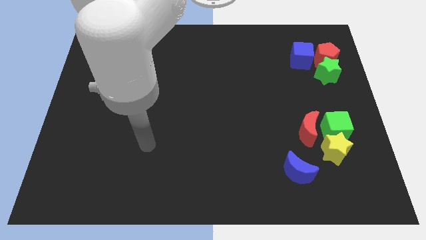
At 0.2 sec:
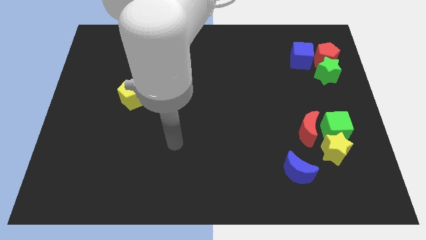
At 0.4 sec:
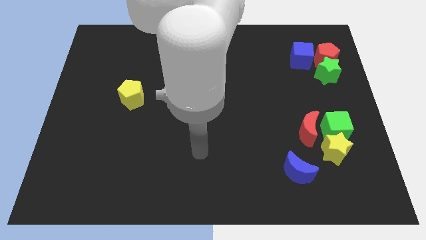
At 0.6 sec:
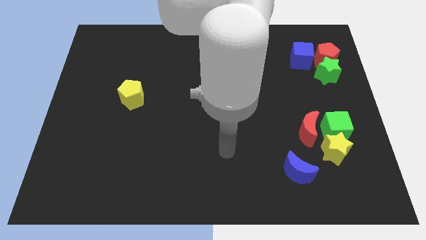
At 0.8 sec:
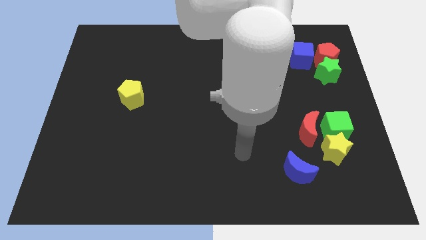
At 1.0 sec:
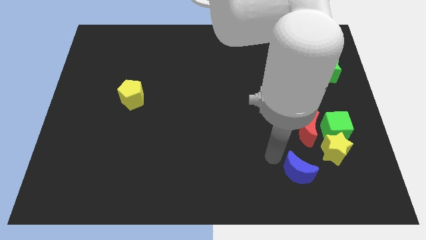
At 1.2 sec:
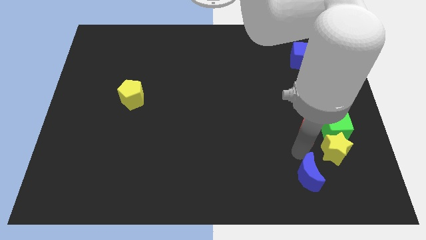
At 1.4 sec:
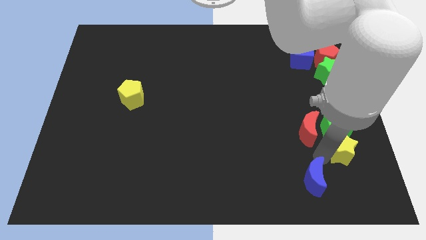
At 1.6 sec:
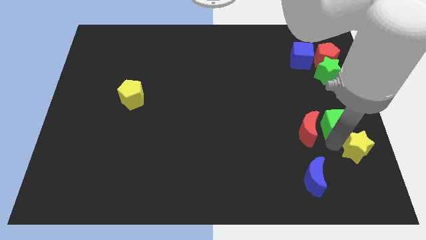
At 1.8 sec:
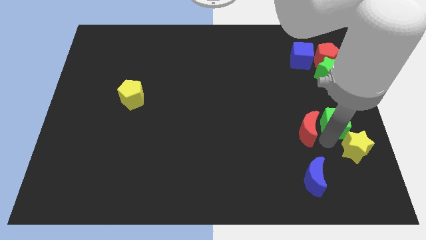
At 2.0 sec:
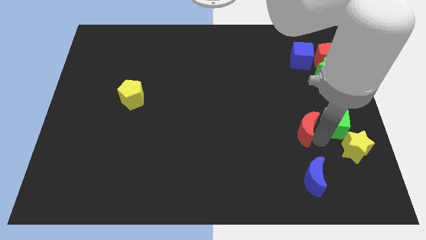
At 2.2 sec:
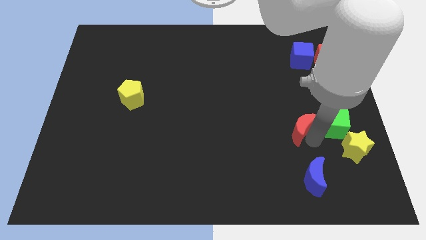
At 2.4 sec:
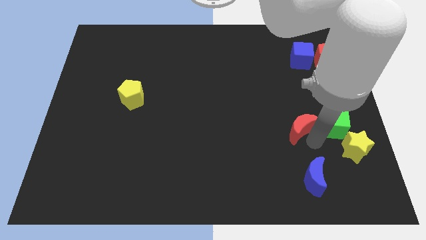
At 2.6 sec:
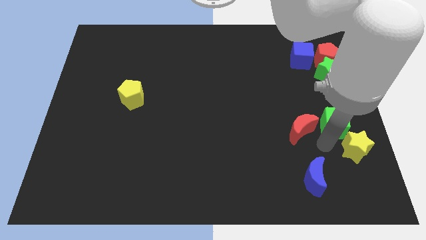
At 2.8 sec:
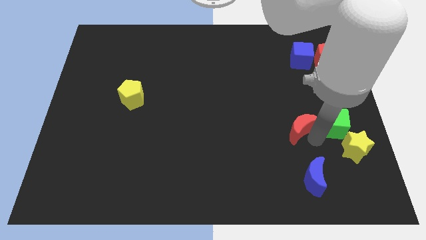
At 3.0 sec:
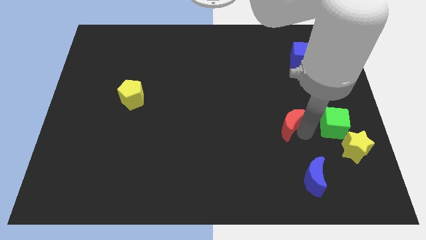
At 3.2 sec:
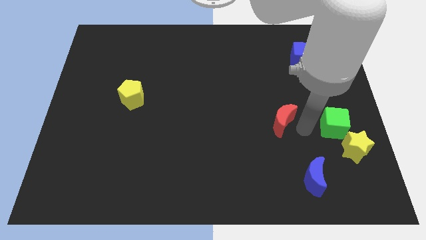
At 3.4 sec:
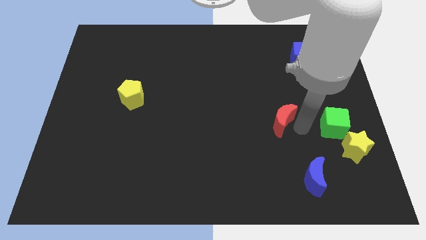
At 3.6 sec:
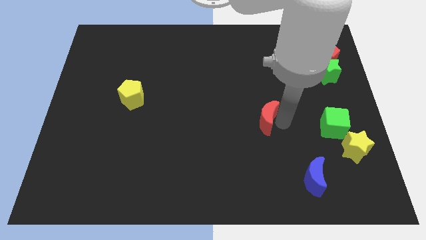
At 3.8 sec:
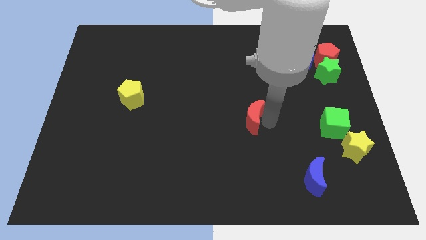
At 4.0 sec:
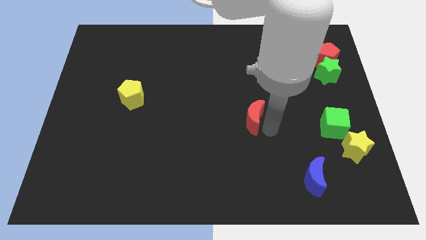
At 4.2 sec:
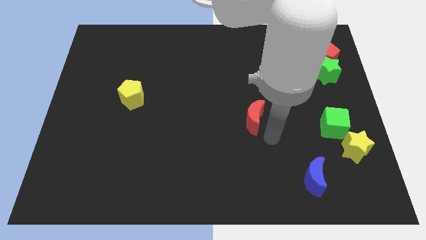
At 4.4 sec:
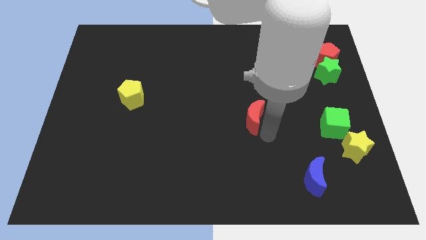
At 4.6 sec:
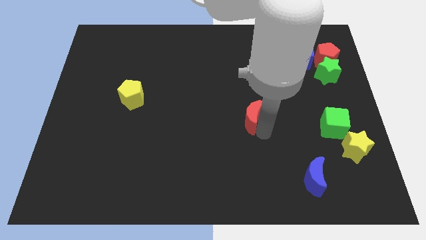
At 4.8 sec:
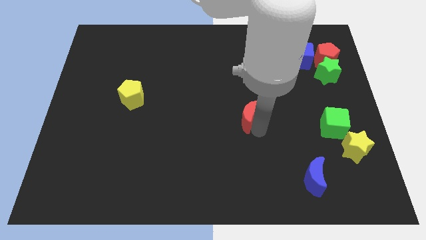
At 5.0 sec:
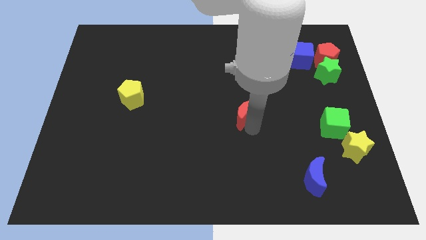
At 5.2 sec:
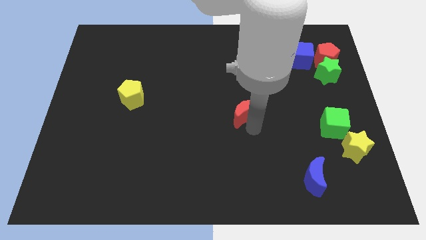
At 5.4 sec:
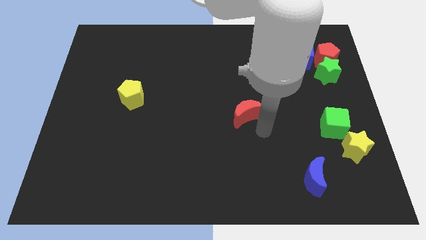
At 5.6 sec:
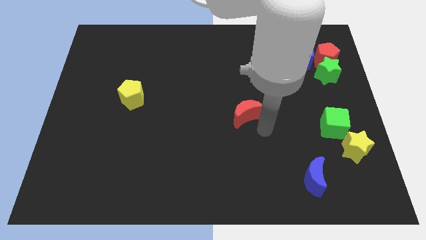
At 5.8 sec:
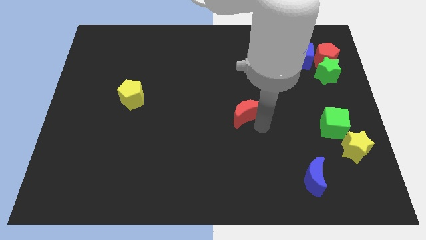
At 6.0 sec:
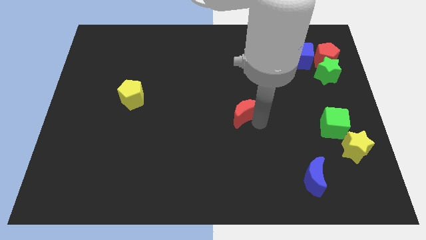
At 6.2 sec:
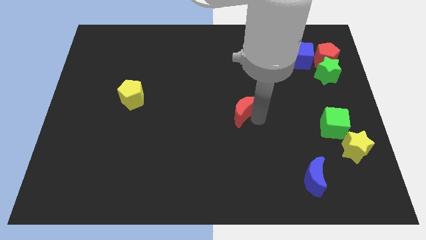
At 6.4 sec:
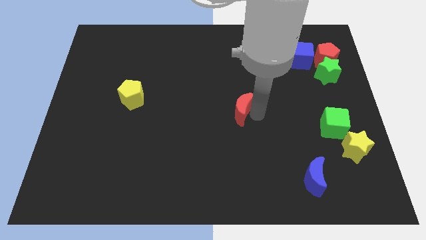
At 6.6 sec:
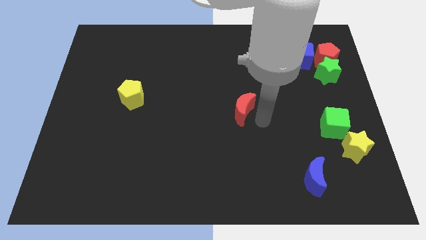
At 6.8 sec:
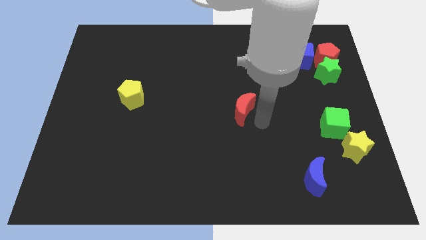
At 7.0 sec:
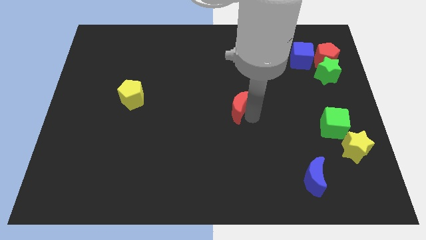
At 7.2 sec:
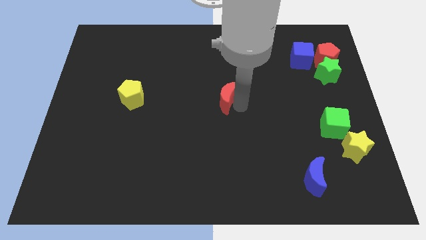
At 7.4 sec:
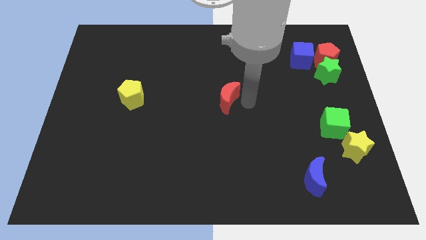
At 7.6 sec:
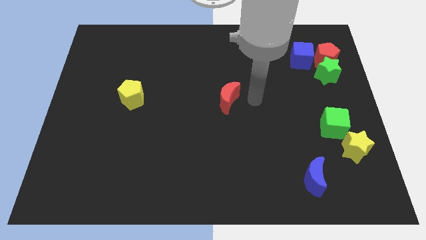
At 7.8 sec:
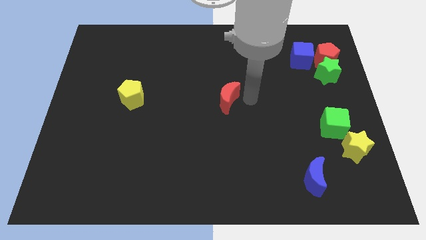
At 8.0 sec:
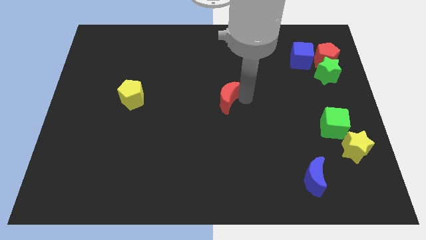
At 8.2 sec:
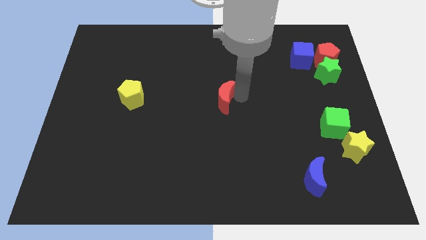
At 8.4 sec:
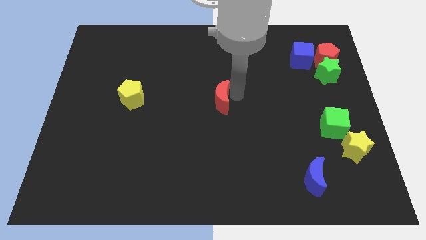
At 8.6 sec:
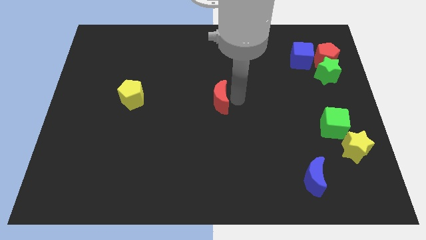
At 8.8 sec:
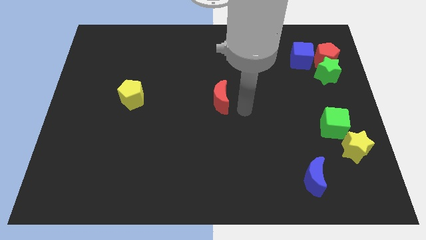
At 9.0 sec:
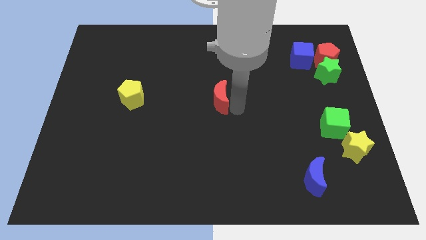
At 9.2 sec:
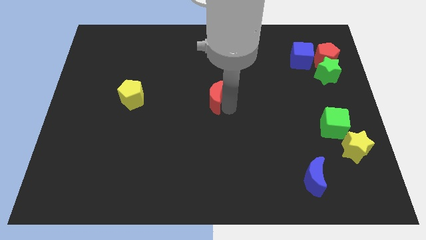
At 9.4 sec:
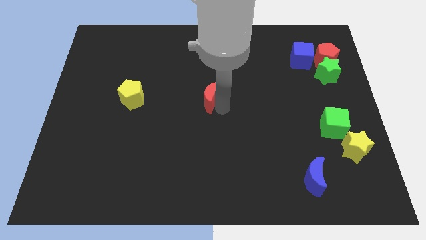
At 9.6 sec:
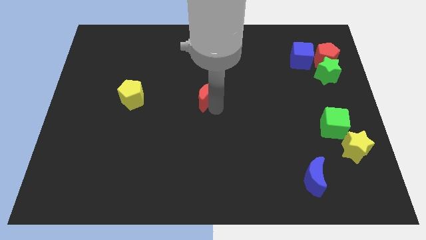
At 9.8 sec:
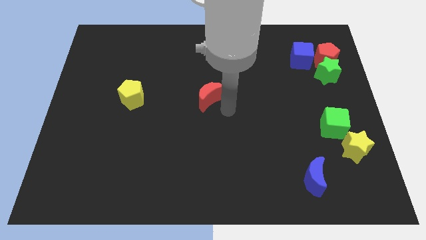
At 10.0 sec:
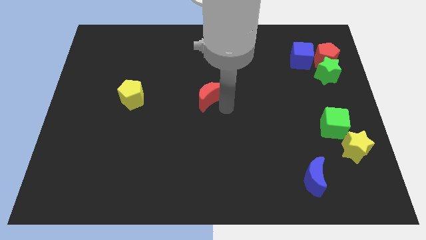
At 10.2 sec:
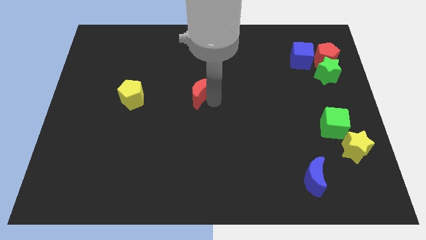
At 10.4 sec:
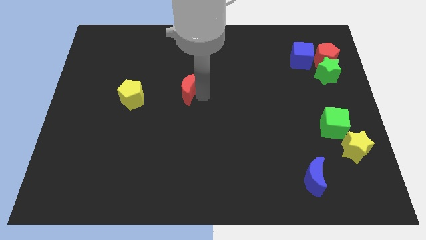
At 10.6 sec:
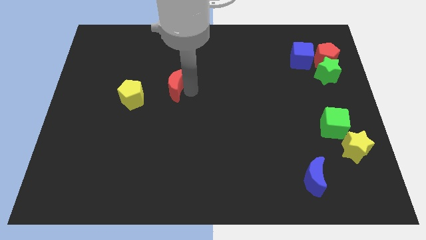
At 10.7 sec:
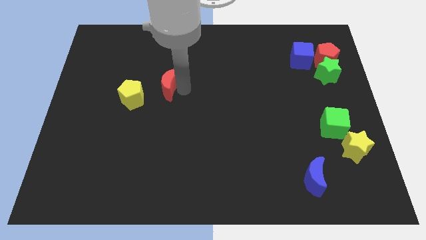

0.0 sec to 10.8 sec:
push the red moon diagonally up and to the right of the yellow pentagon

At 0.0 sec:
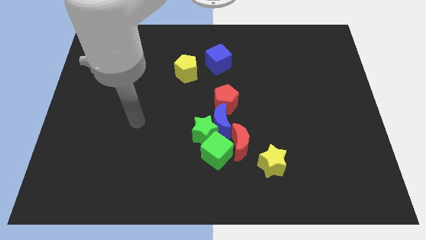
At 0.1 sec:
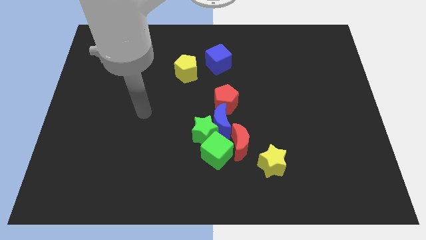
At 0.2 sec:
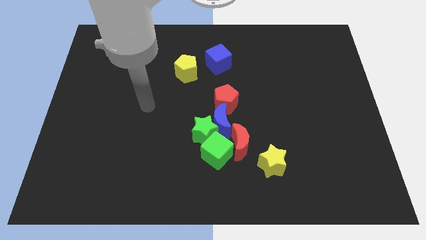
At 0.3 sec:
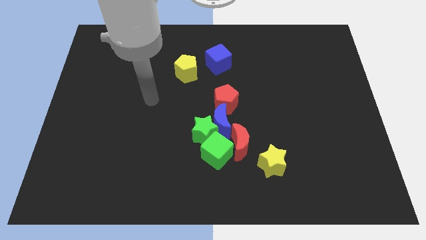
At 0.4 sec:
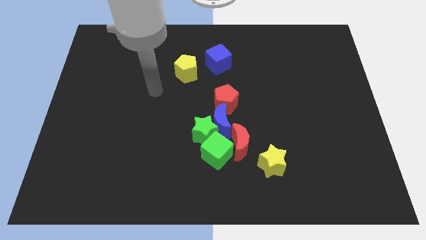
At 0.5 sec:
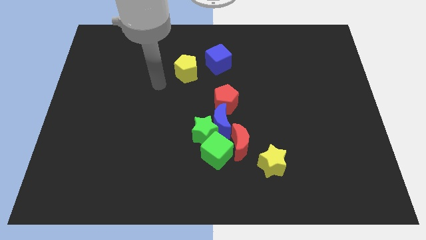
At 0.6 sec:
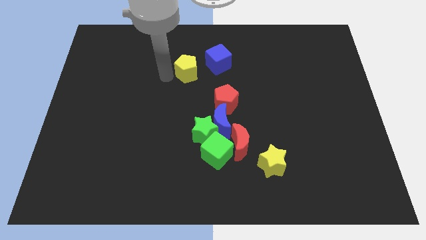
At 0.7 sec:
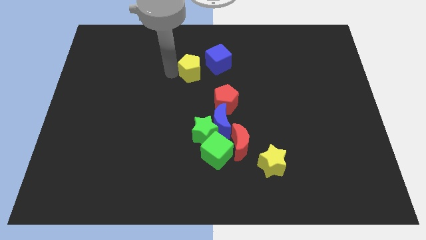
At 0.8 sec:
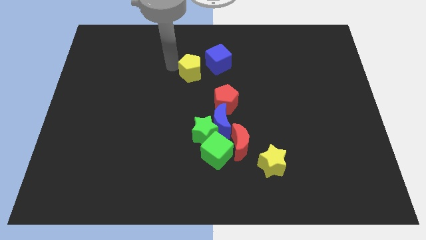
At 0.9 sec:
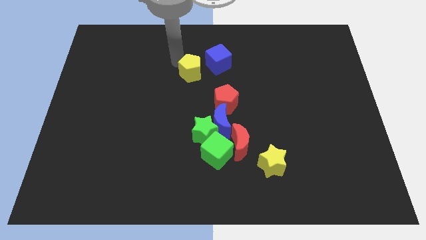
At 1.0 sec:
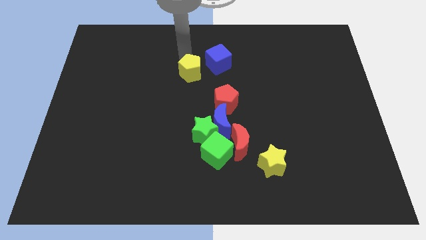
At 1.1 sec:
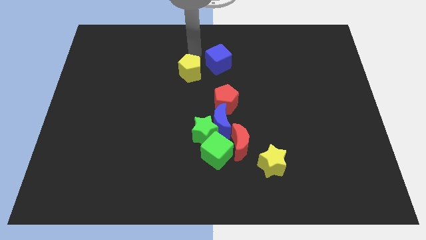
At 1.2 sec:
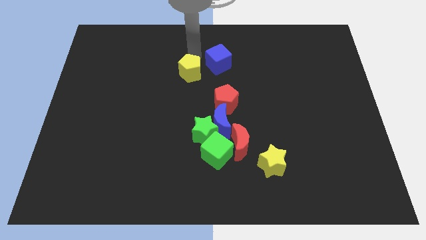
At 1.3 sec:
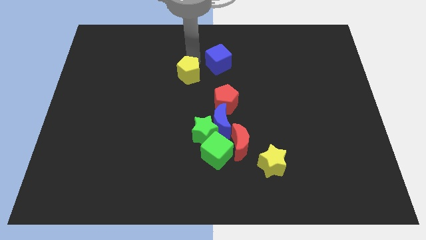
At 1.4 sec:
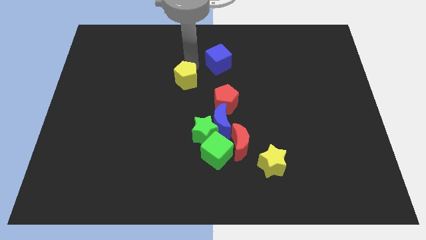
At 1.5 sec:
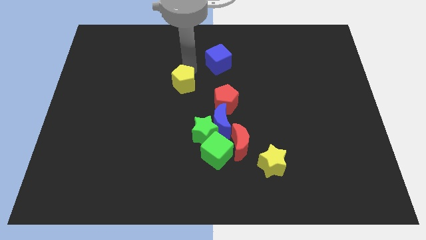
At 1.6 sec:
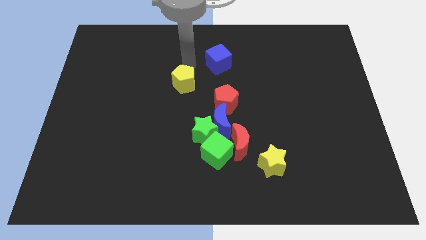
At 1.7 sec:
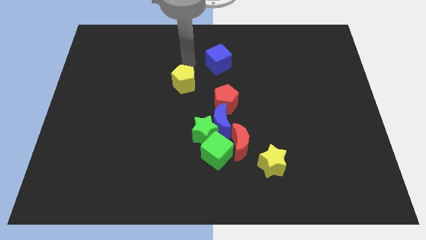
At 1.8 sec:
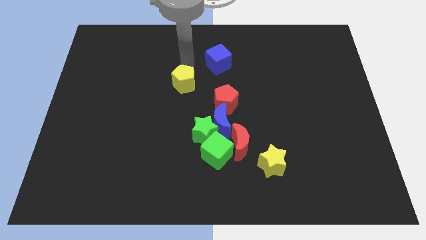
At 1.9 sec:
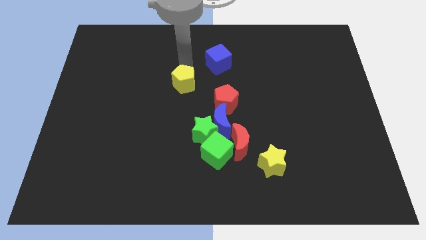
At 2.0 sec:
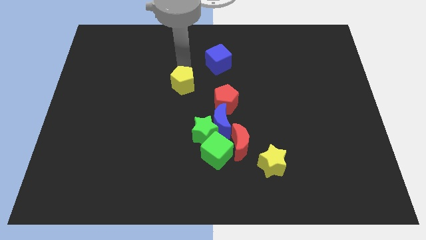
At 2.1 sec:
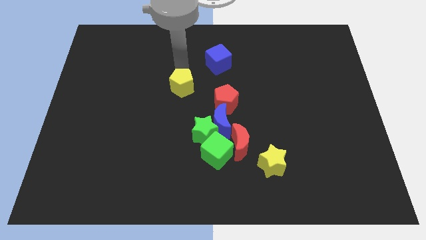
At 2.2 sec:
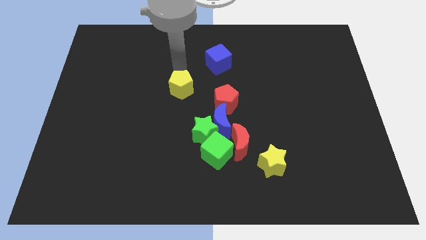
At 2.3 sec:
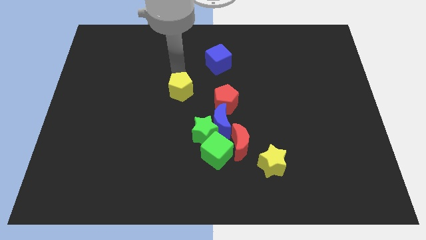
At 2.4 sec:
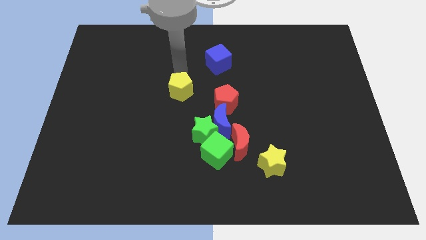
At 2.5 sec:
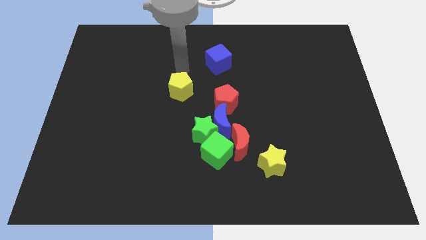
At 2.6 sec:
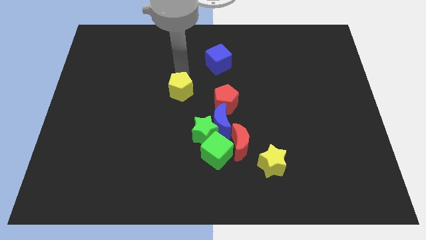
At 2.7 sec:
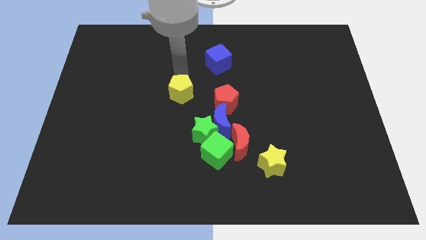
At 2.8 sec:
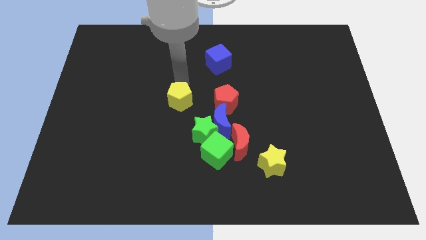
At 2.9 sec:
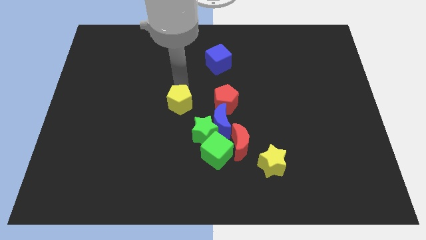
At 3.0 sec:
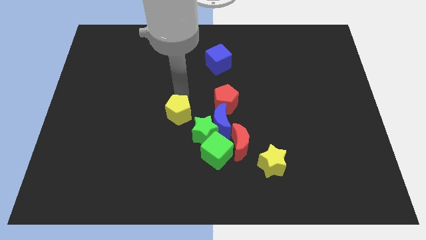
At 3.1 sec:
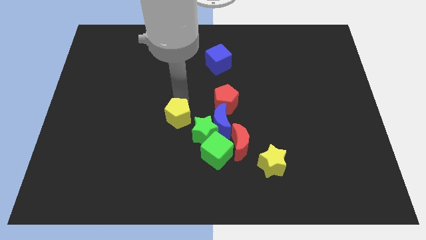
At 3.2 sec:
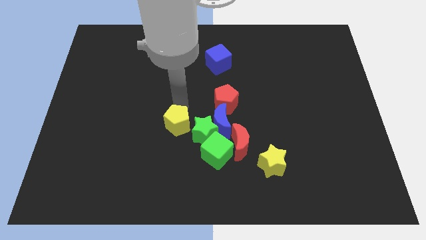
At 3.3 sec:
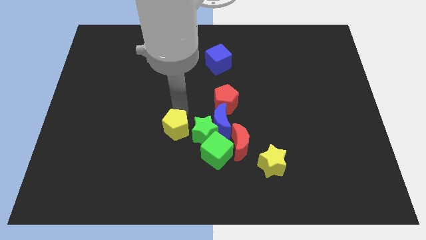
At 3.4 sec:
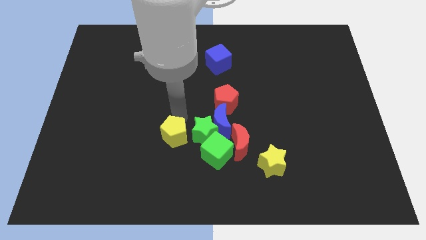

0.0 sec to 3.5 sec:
put the yellow pentagon to the left side of the green cube
